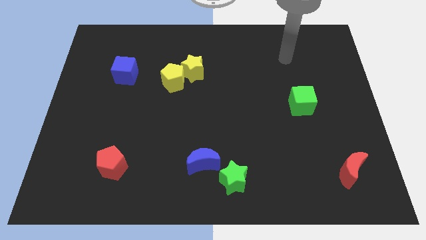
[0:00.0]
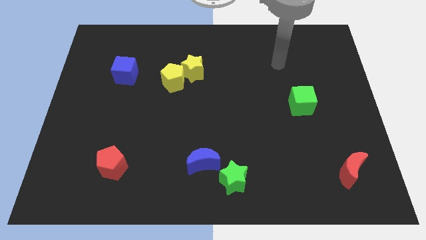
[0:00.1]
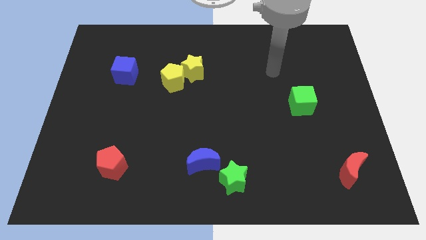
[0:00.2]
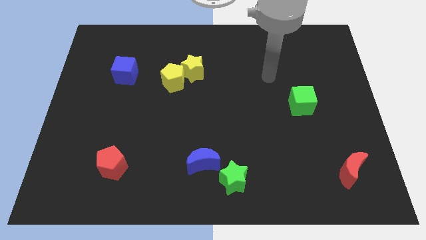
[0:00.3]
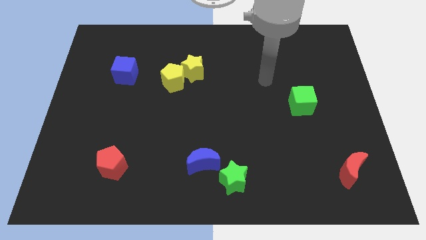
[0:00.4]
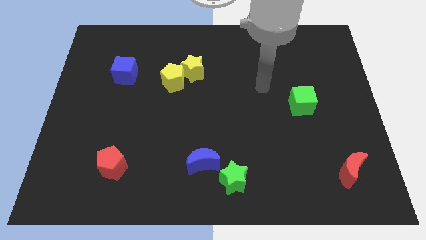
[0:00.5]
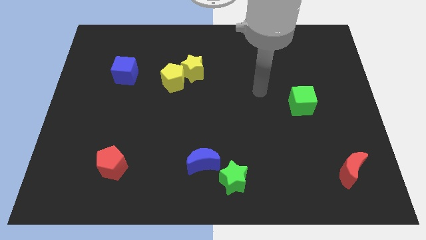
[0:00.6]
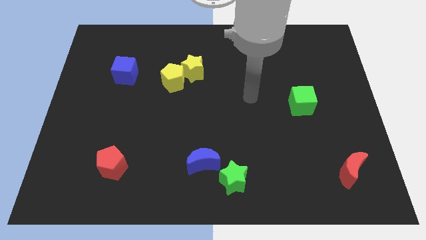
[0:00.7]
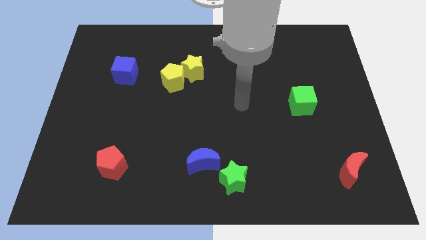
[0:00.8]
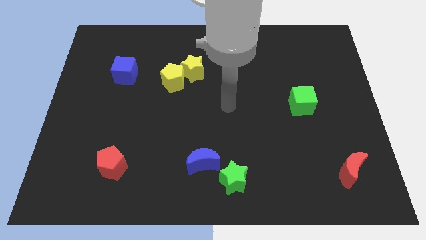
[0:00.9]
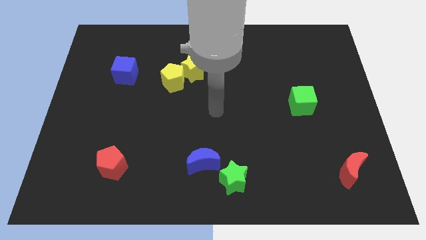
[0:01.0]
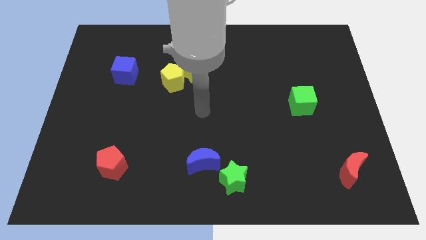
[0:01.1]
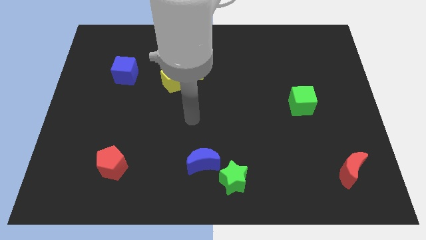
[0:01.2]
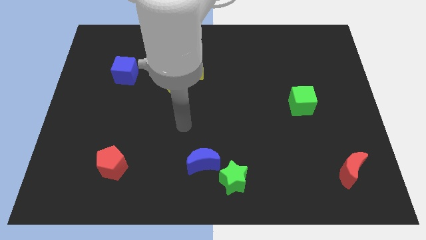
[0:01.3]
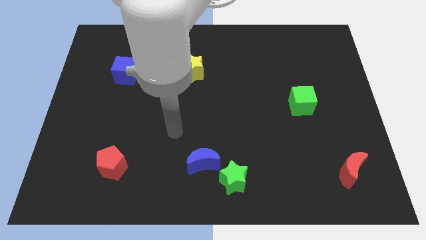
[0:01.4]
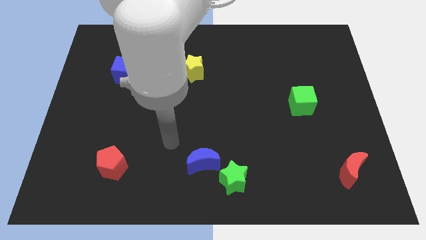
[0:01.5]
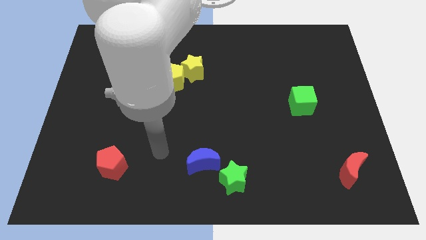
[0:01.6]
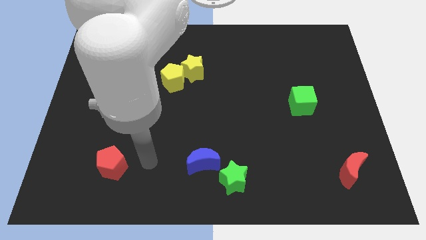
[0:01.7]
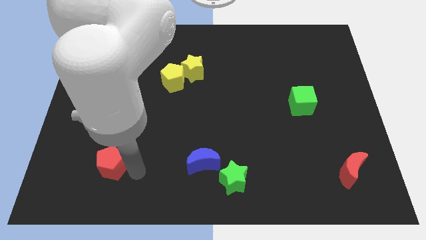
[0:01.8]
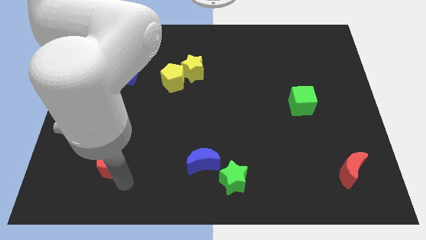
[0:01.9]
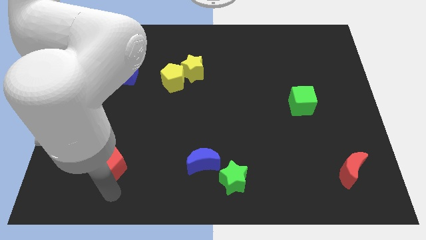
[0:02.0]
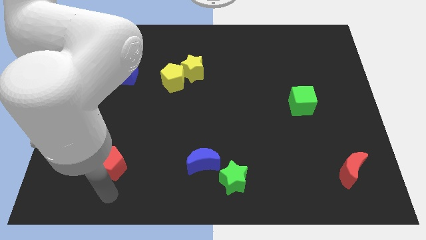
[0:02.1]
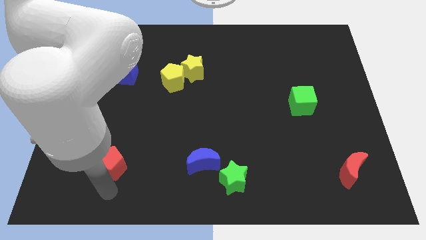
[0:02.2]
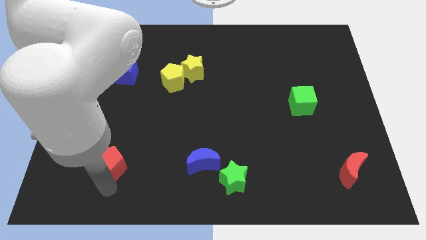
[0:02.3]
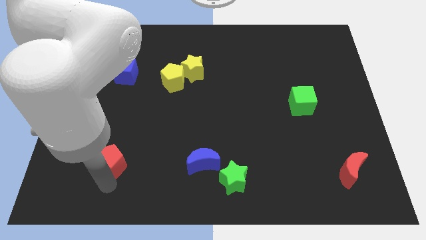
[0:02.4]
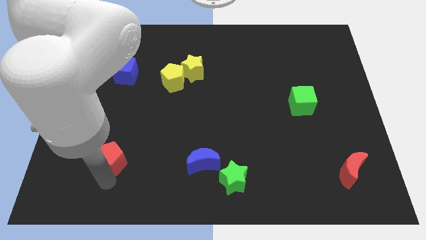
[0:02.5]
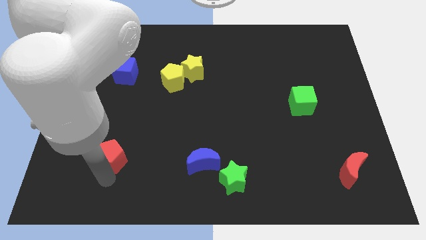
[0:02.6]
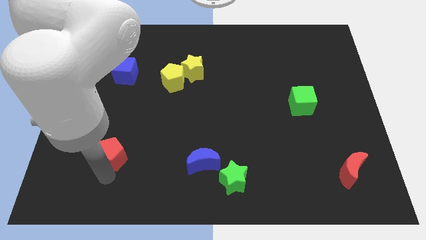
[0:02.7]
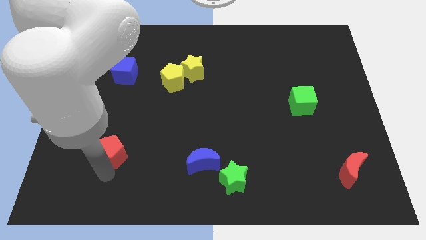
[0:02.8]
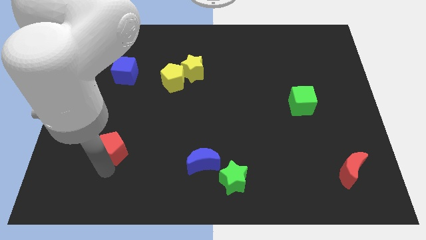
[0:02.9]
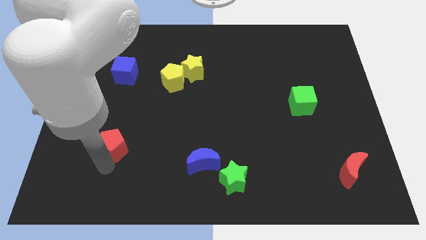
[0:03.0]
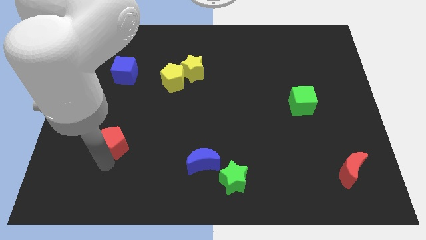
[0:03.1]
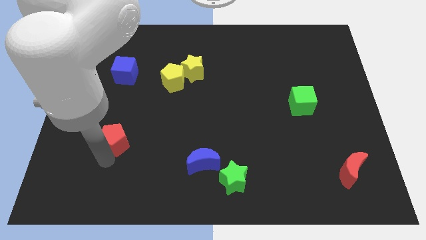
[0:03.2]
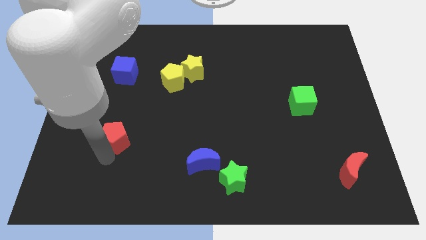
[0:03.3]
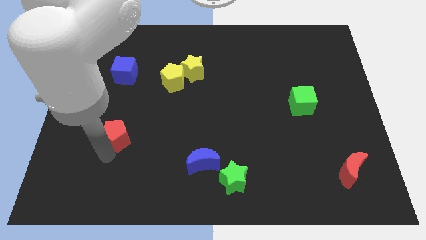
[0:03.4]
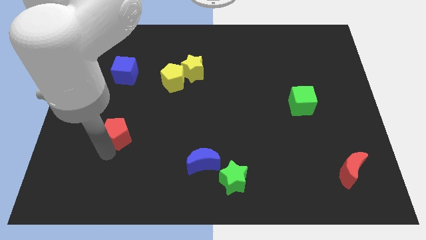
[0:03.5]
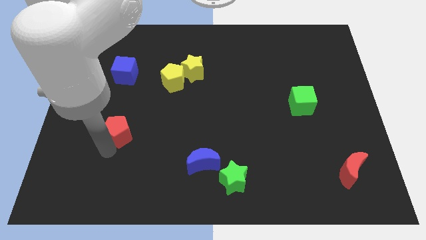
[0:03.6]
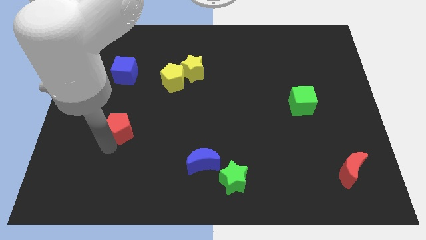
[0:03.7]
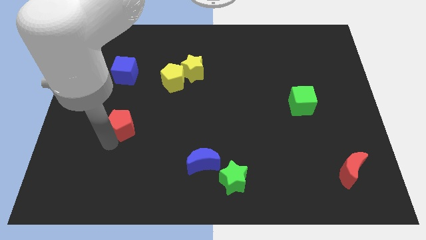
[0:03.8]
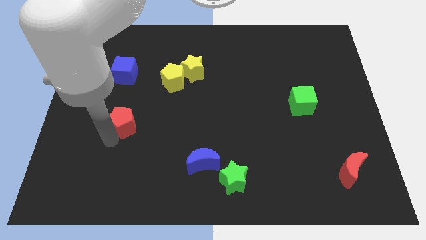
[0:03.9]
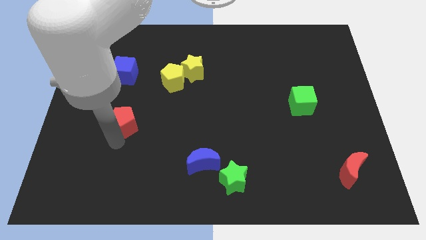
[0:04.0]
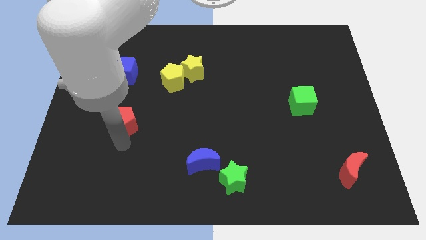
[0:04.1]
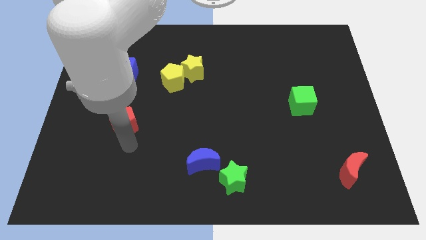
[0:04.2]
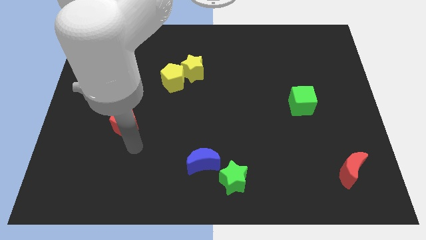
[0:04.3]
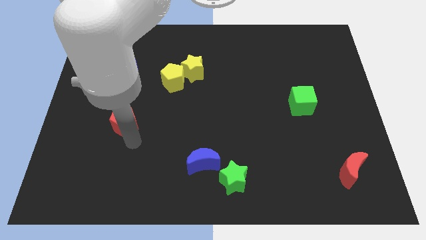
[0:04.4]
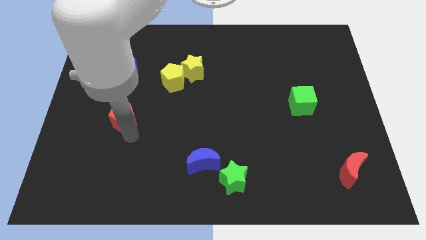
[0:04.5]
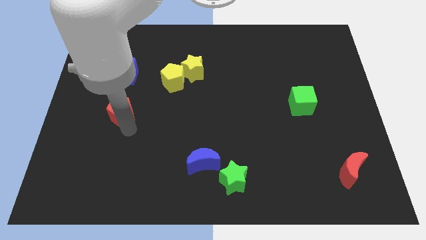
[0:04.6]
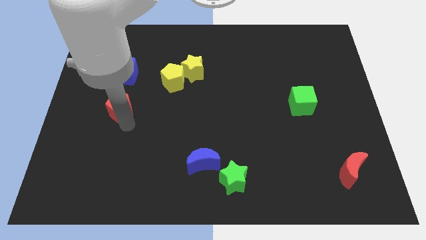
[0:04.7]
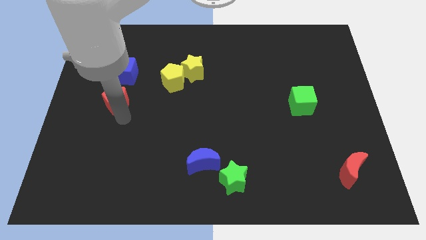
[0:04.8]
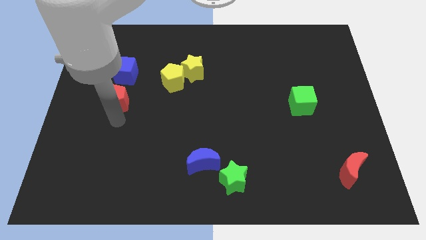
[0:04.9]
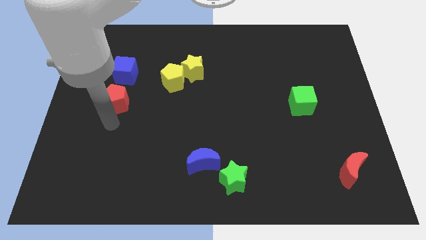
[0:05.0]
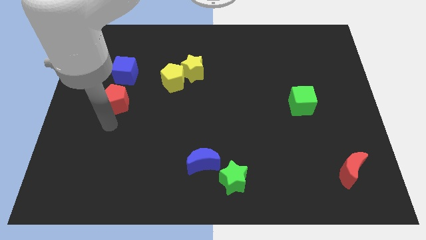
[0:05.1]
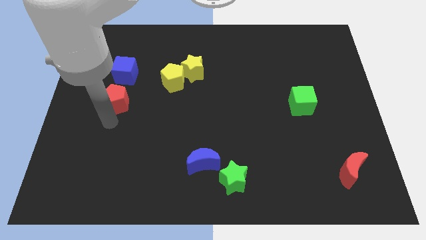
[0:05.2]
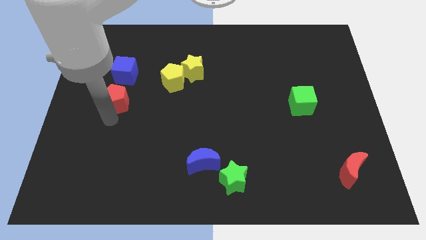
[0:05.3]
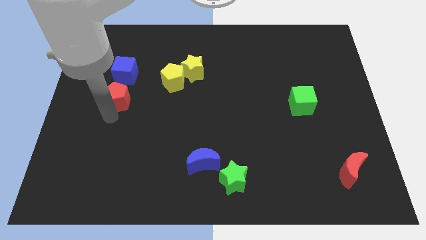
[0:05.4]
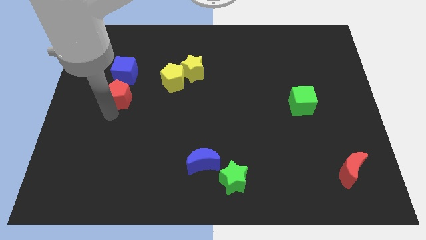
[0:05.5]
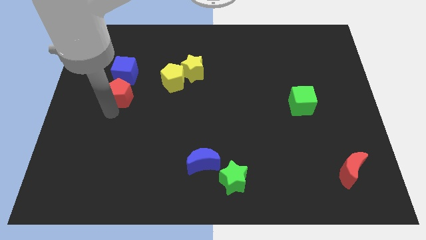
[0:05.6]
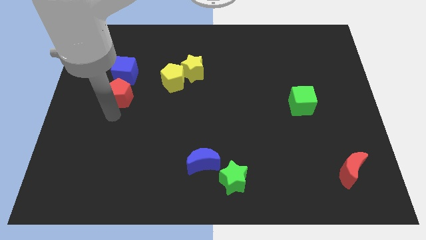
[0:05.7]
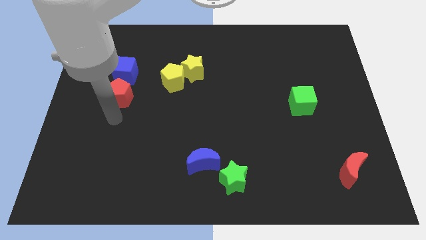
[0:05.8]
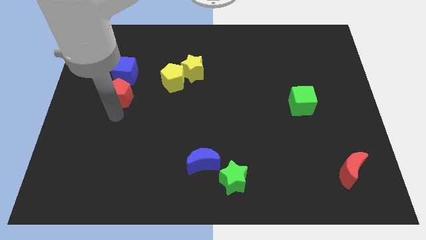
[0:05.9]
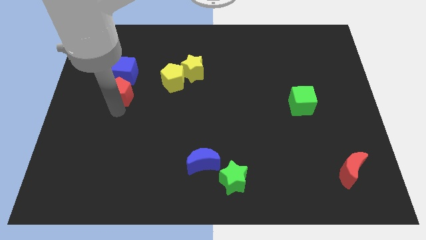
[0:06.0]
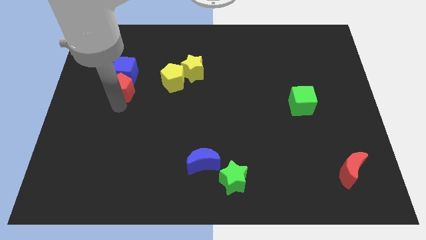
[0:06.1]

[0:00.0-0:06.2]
move the red pentagon towards the blue cube

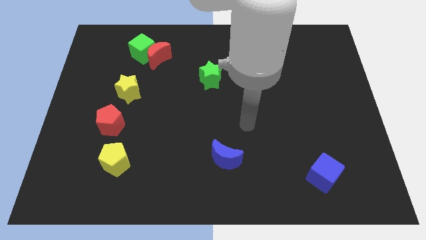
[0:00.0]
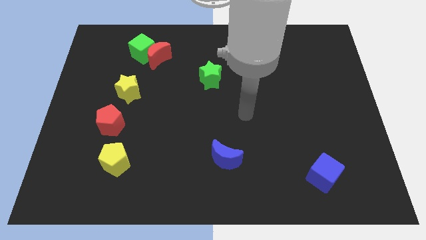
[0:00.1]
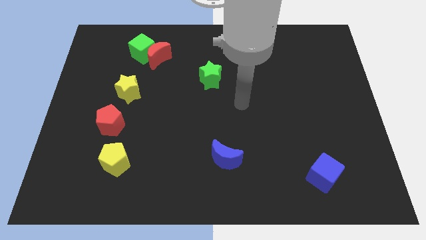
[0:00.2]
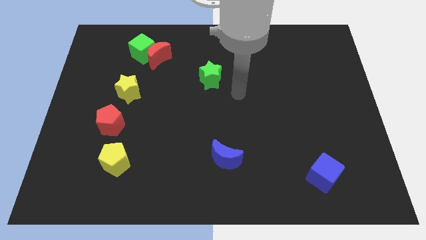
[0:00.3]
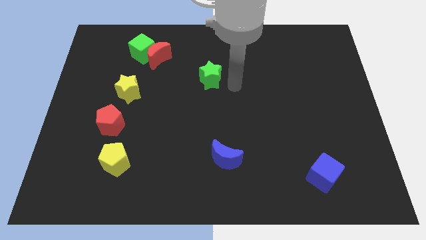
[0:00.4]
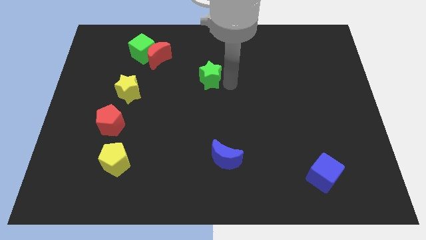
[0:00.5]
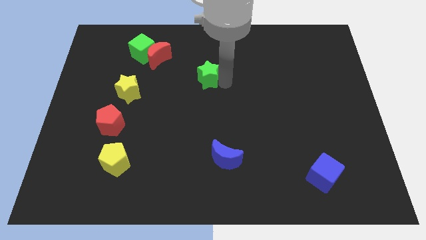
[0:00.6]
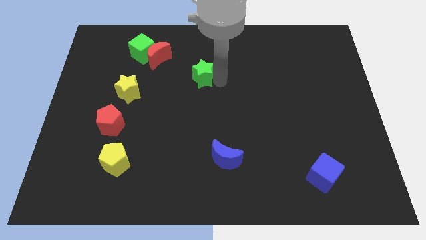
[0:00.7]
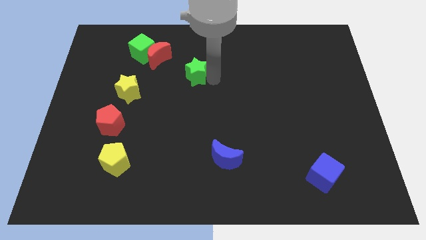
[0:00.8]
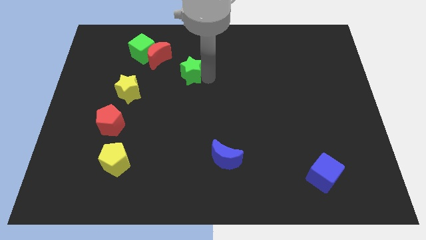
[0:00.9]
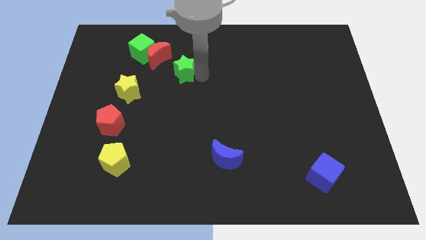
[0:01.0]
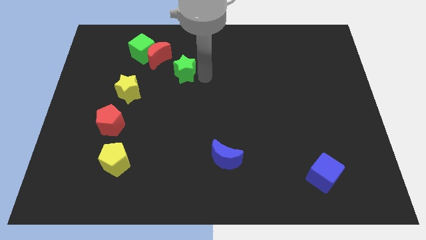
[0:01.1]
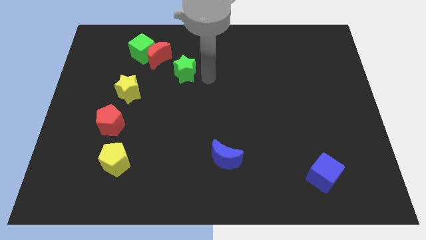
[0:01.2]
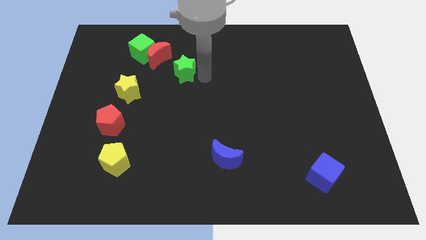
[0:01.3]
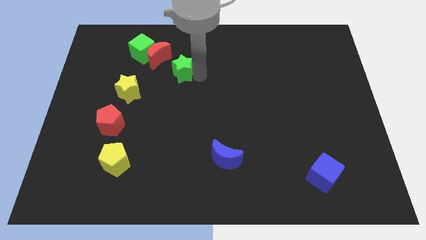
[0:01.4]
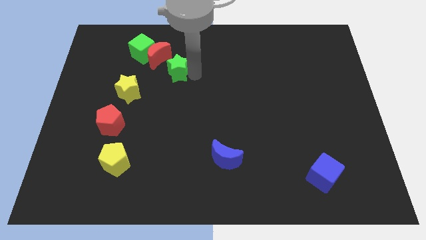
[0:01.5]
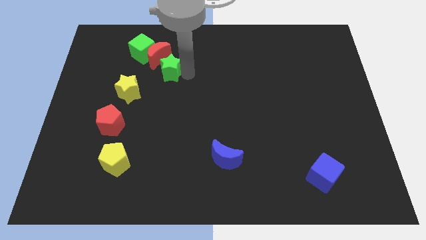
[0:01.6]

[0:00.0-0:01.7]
slide the green star next to the red moon
